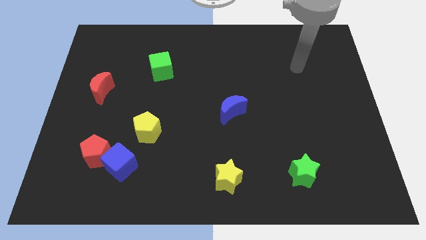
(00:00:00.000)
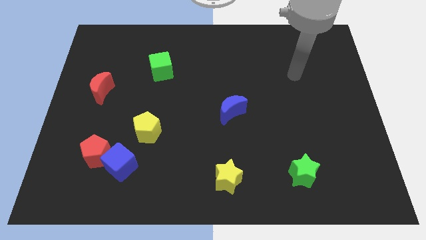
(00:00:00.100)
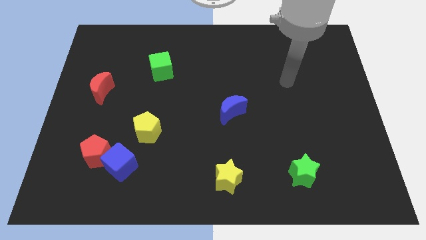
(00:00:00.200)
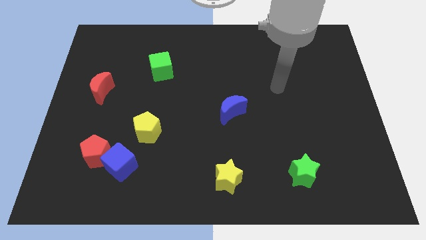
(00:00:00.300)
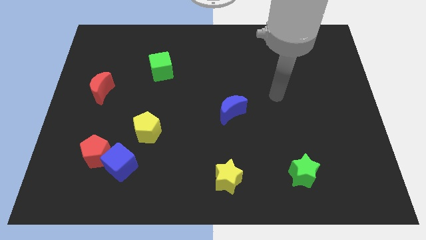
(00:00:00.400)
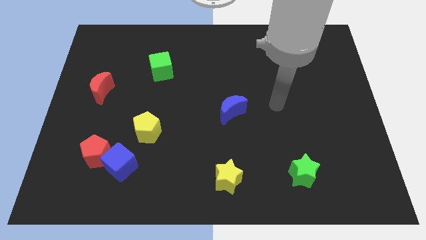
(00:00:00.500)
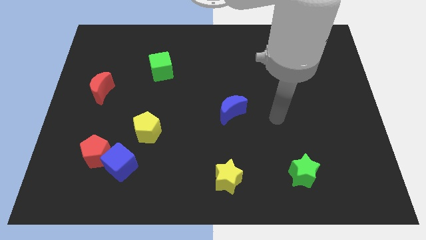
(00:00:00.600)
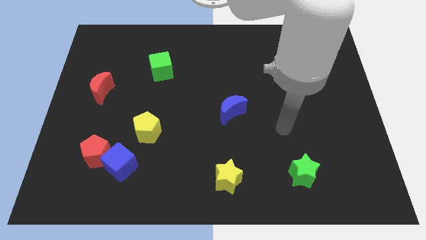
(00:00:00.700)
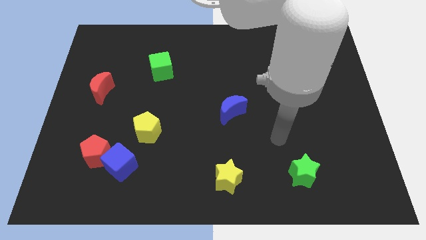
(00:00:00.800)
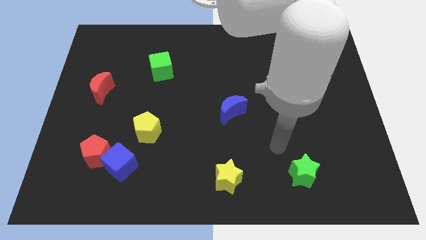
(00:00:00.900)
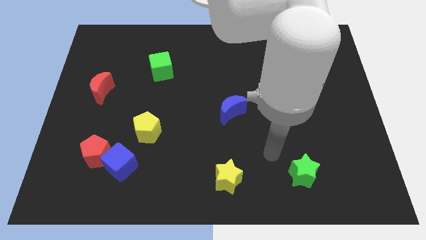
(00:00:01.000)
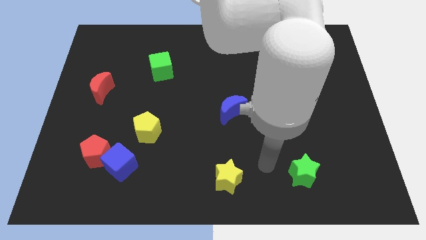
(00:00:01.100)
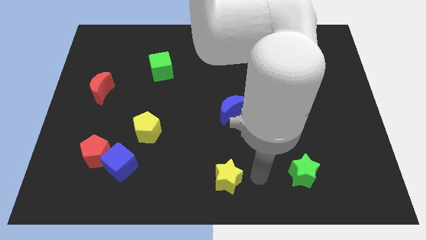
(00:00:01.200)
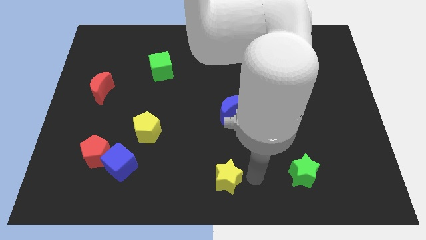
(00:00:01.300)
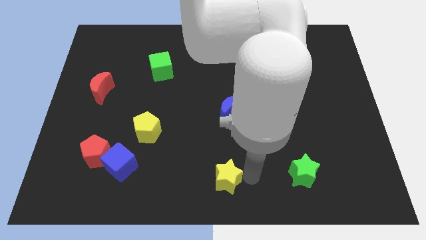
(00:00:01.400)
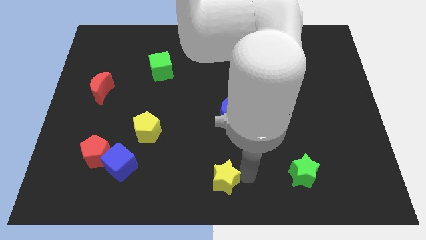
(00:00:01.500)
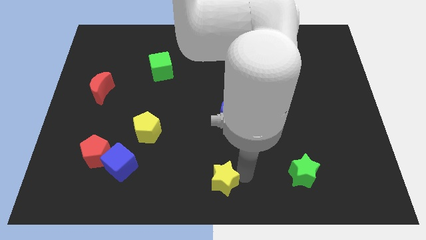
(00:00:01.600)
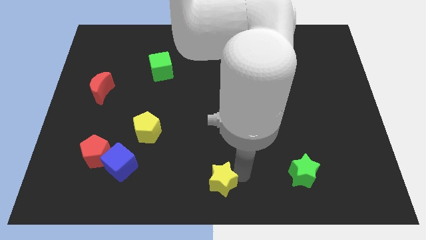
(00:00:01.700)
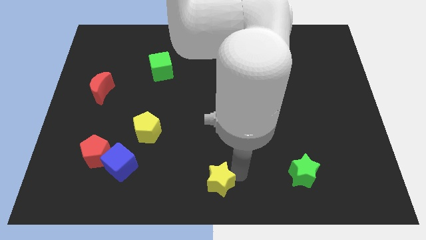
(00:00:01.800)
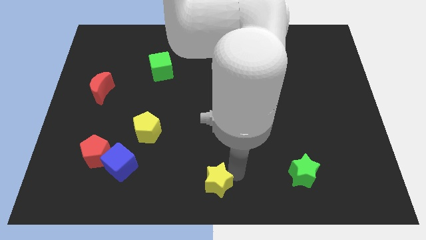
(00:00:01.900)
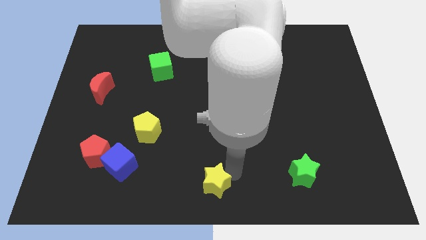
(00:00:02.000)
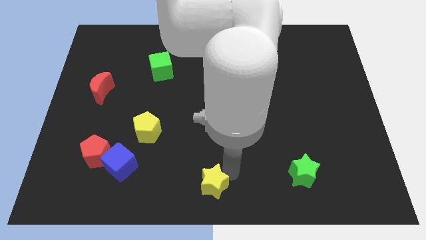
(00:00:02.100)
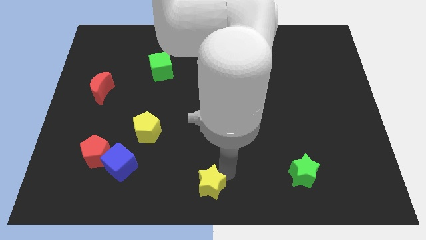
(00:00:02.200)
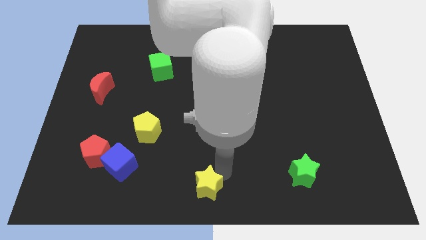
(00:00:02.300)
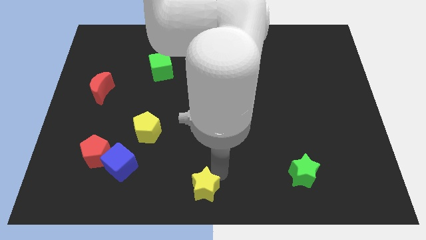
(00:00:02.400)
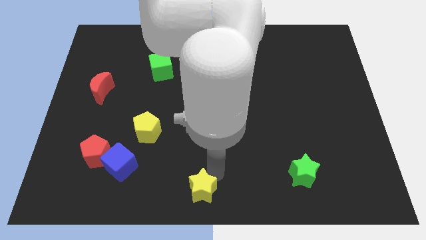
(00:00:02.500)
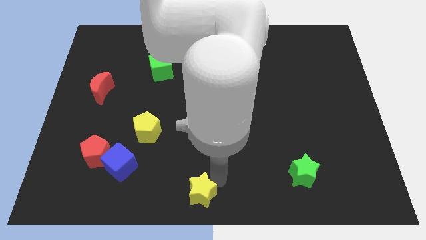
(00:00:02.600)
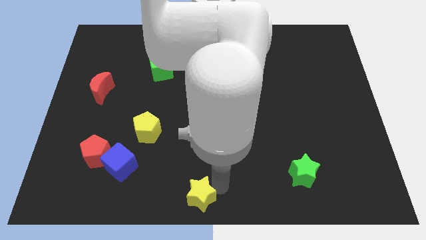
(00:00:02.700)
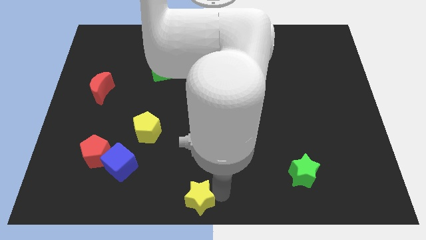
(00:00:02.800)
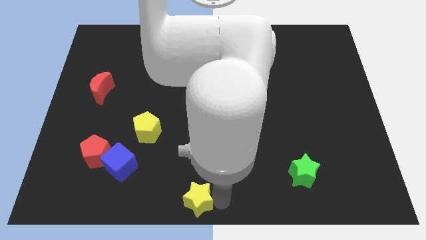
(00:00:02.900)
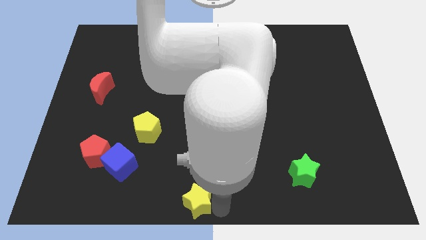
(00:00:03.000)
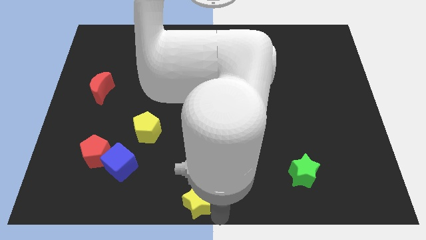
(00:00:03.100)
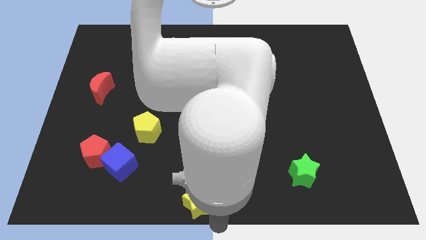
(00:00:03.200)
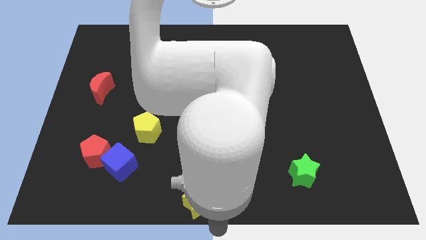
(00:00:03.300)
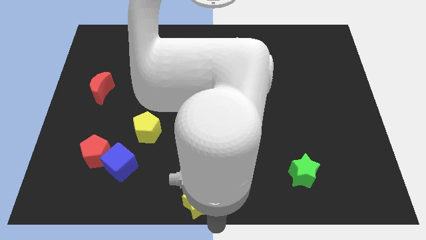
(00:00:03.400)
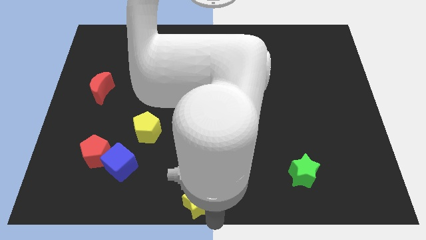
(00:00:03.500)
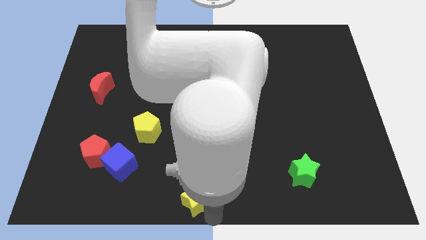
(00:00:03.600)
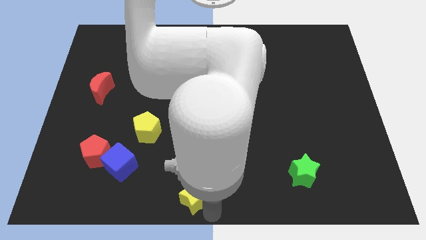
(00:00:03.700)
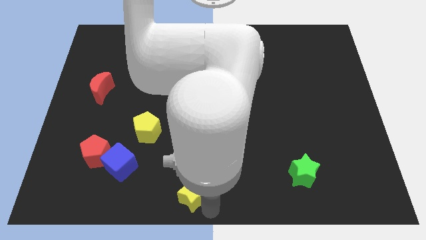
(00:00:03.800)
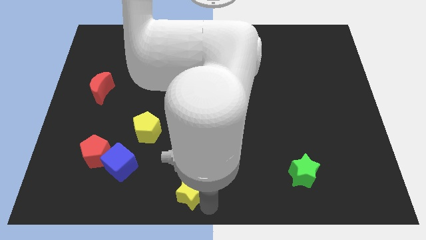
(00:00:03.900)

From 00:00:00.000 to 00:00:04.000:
slightly move the yellow star left

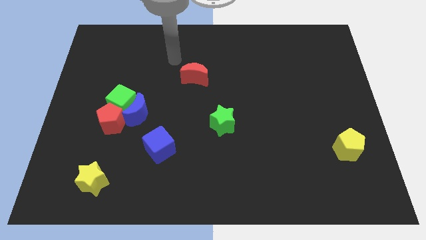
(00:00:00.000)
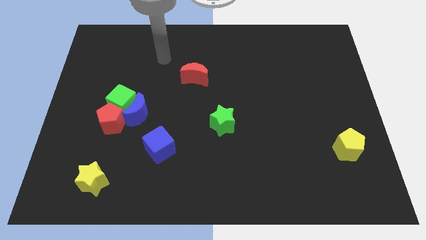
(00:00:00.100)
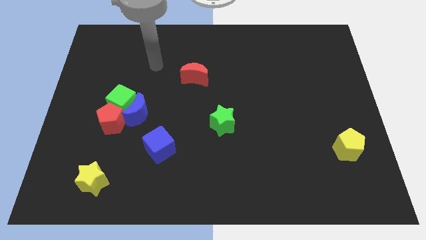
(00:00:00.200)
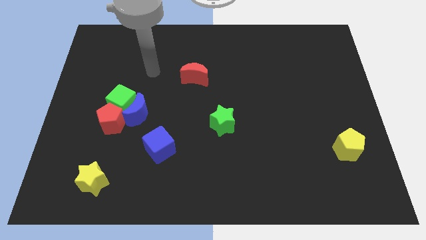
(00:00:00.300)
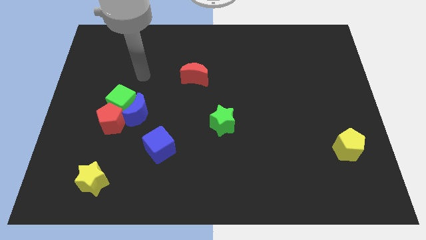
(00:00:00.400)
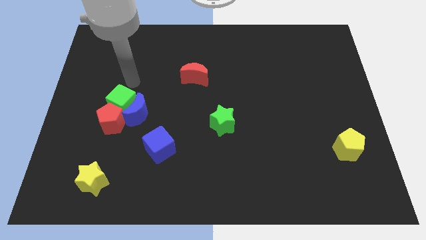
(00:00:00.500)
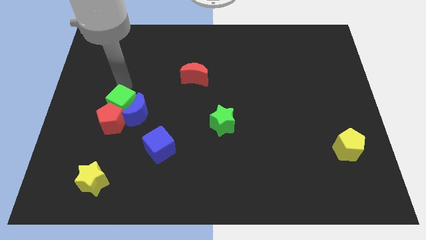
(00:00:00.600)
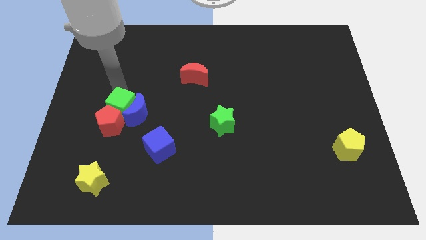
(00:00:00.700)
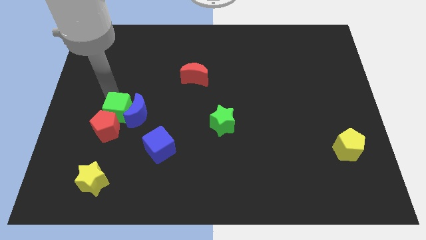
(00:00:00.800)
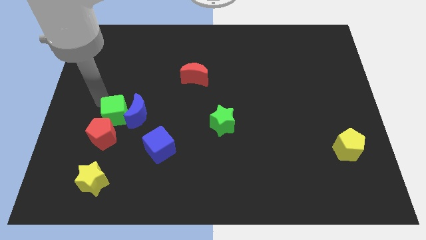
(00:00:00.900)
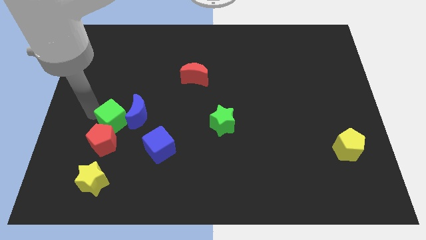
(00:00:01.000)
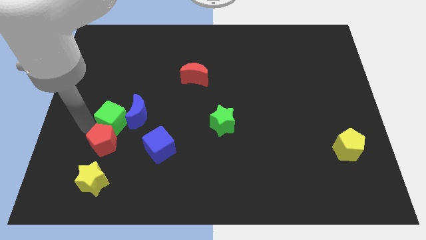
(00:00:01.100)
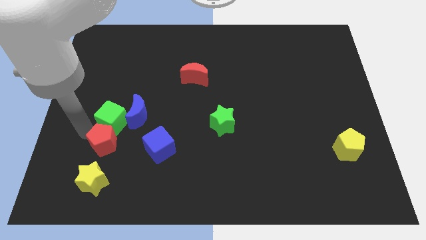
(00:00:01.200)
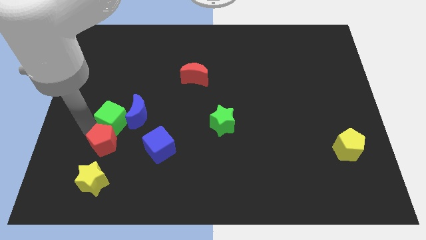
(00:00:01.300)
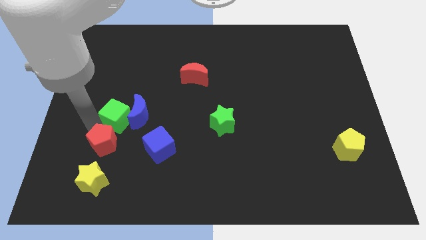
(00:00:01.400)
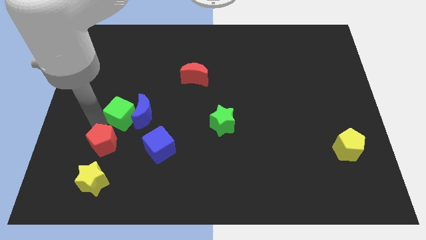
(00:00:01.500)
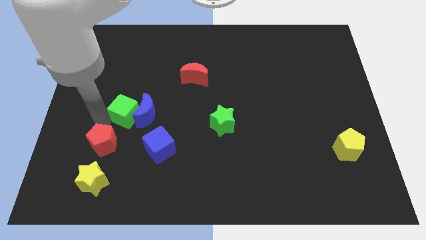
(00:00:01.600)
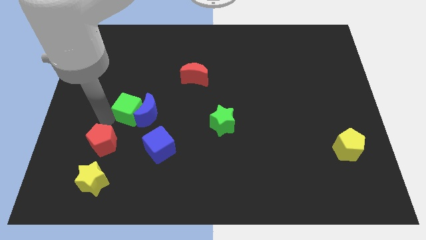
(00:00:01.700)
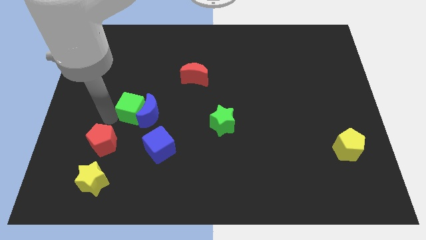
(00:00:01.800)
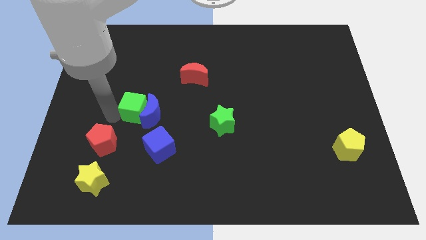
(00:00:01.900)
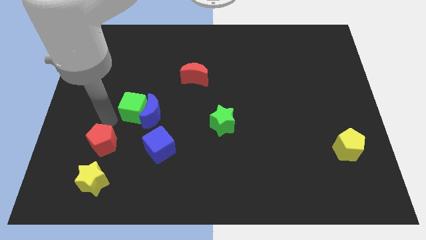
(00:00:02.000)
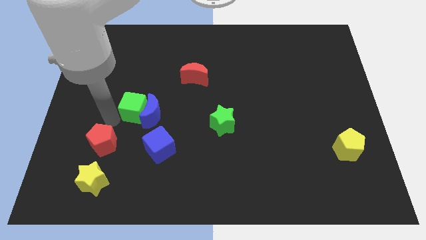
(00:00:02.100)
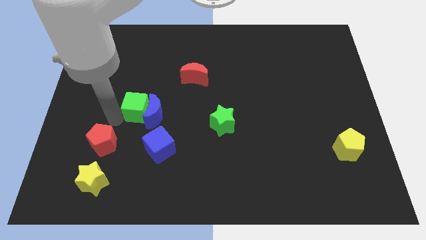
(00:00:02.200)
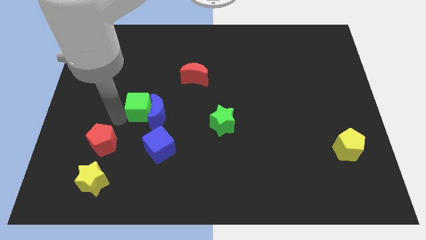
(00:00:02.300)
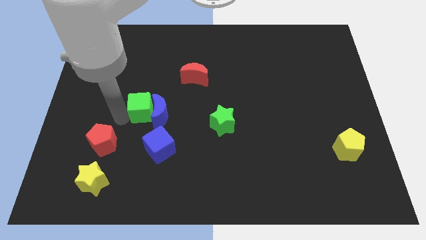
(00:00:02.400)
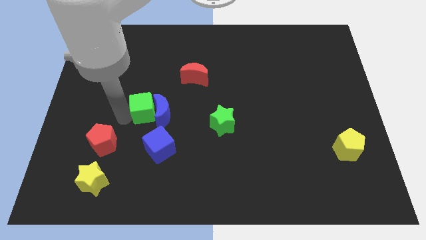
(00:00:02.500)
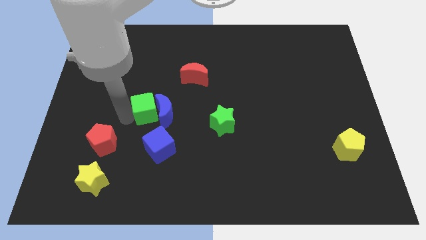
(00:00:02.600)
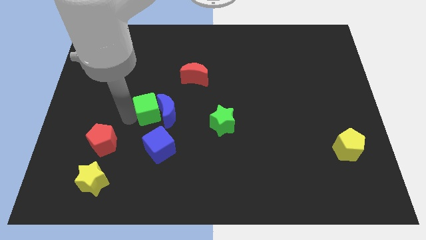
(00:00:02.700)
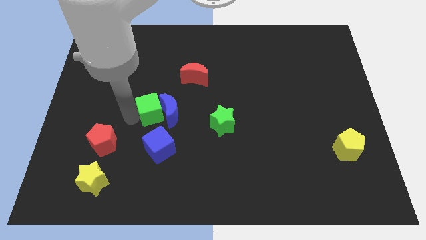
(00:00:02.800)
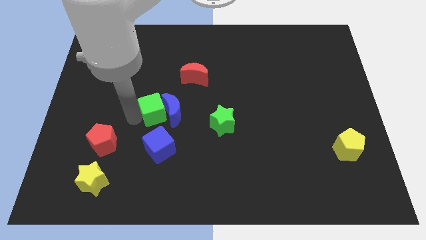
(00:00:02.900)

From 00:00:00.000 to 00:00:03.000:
slightly push the green cube to the right

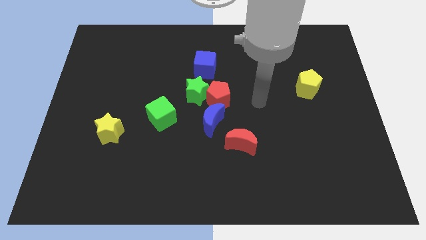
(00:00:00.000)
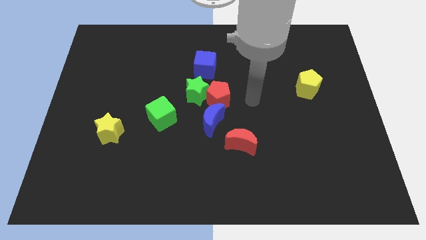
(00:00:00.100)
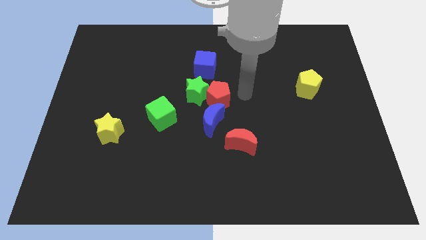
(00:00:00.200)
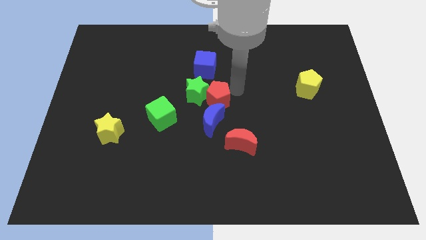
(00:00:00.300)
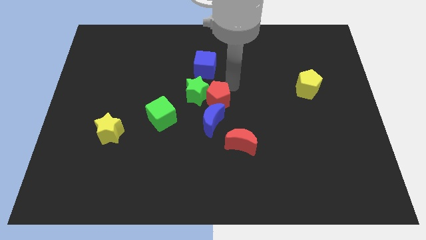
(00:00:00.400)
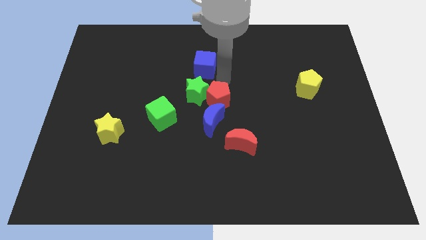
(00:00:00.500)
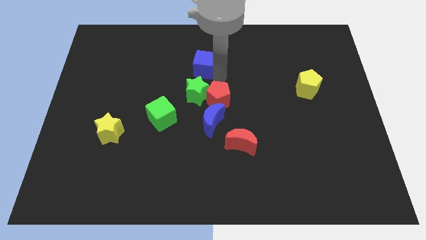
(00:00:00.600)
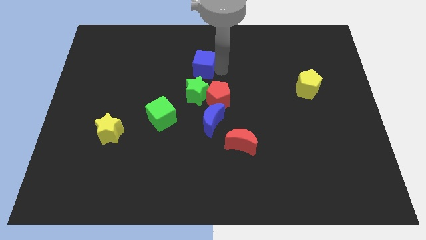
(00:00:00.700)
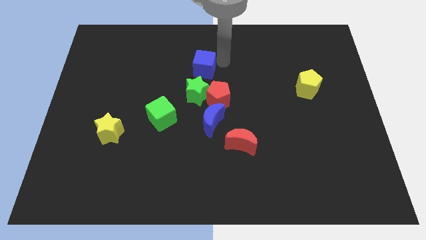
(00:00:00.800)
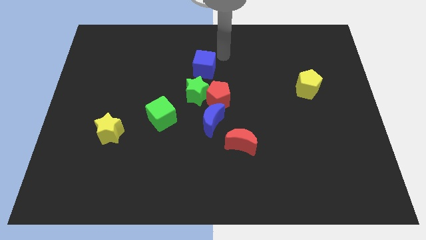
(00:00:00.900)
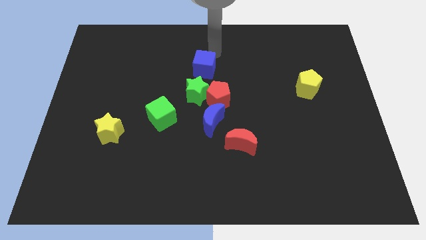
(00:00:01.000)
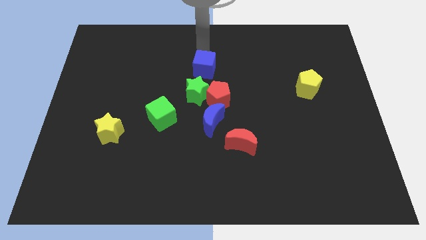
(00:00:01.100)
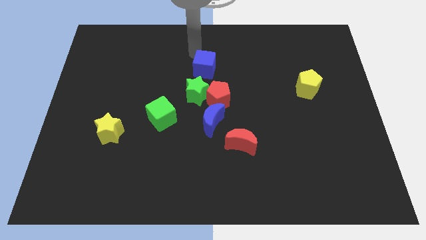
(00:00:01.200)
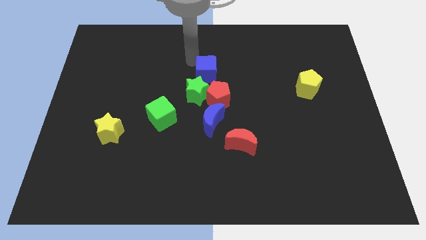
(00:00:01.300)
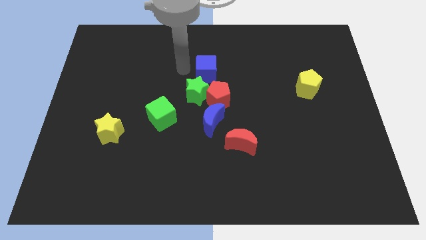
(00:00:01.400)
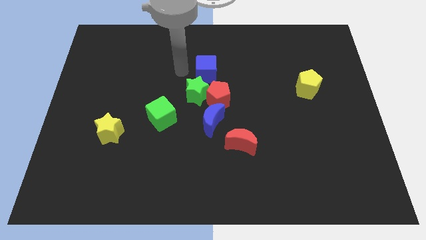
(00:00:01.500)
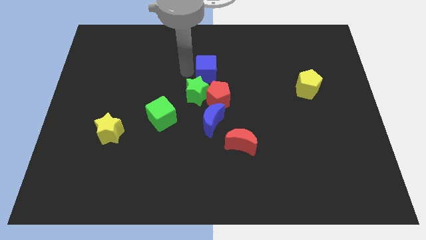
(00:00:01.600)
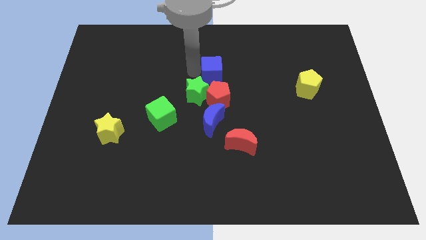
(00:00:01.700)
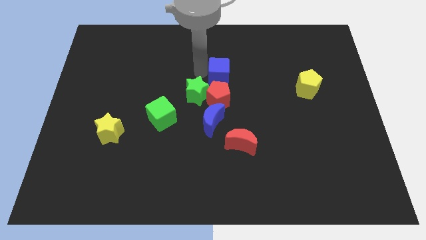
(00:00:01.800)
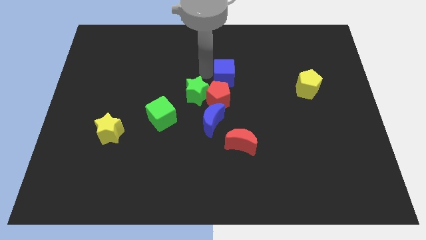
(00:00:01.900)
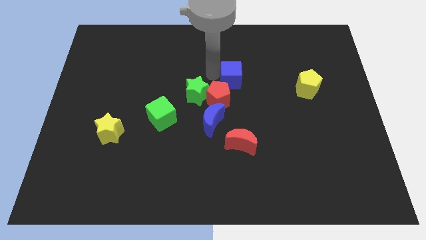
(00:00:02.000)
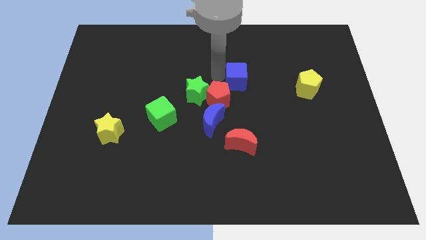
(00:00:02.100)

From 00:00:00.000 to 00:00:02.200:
push the blue cube right a bit
